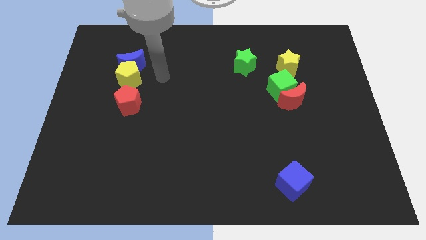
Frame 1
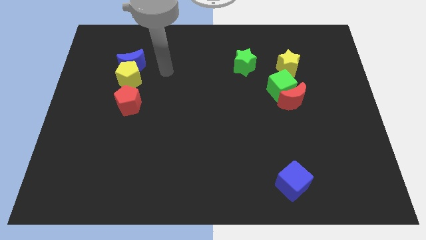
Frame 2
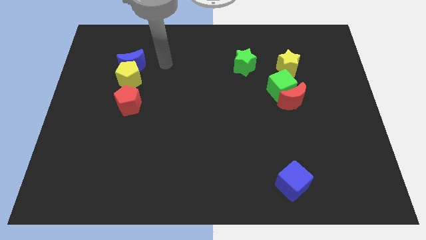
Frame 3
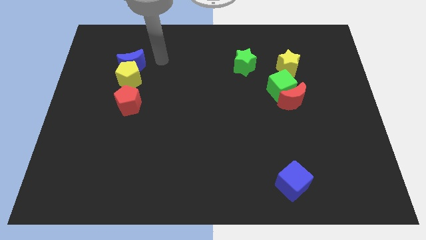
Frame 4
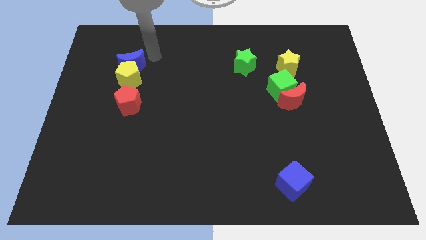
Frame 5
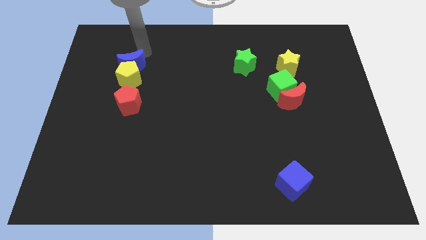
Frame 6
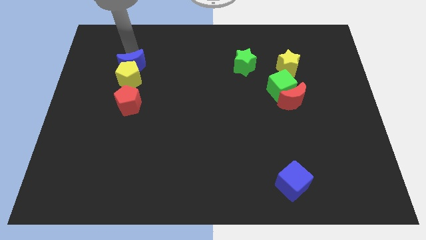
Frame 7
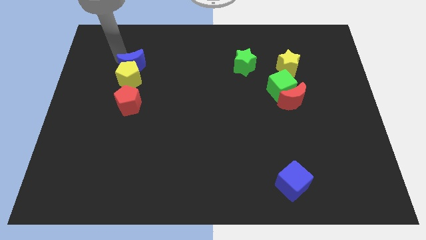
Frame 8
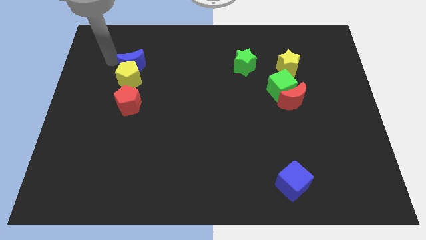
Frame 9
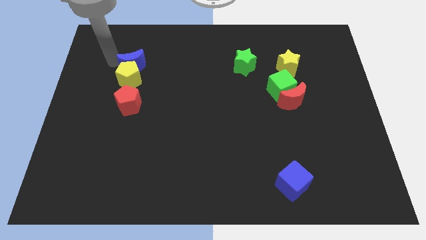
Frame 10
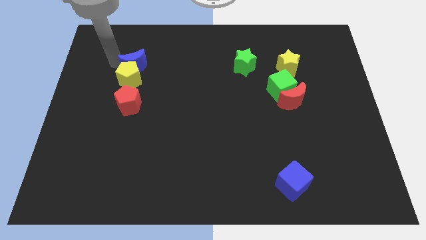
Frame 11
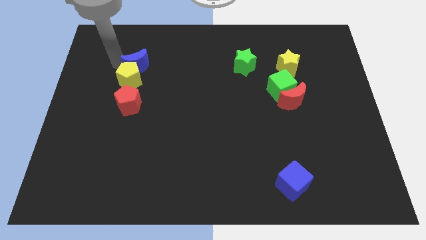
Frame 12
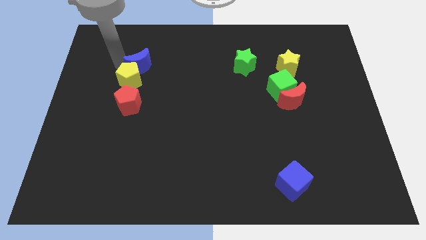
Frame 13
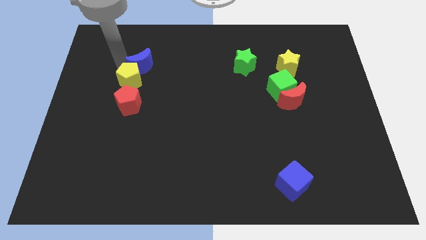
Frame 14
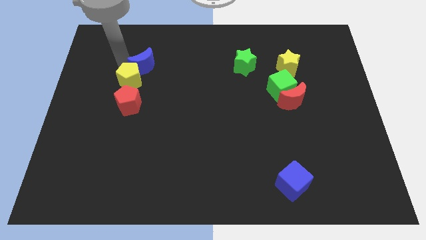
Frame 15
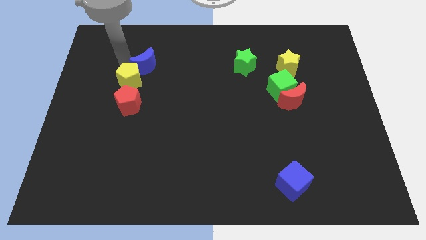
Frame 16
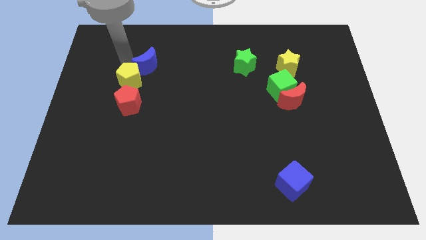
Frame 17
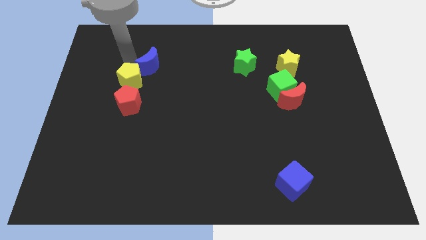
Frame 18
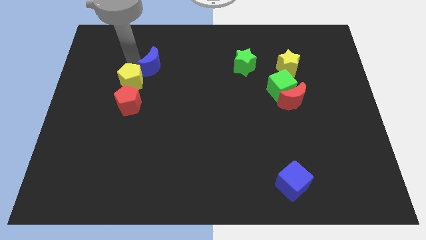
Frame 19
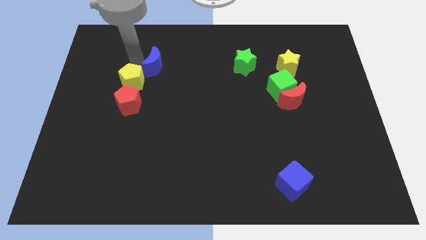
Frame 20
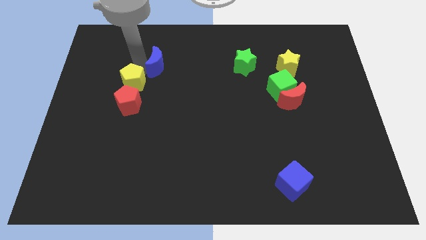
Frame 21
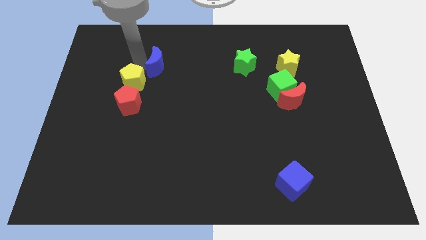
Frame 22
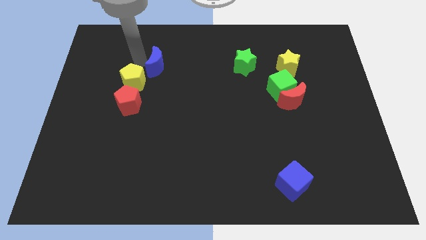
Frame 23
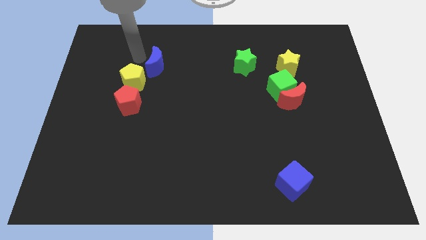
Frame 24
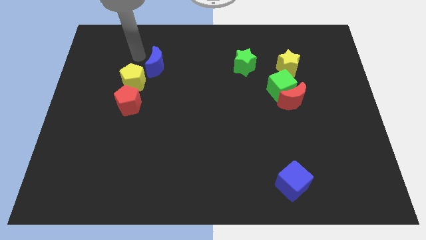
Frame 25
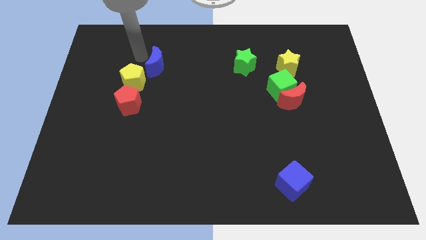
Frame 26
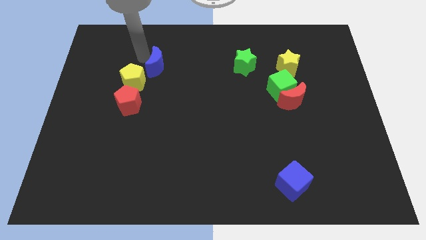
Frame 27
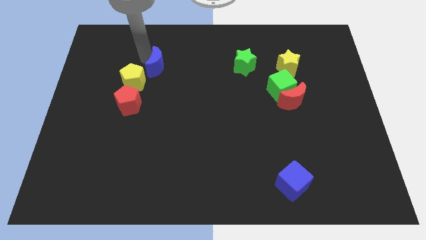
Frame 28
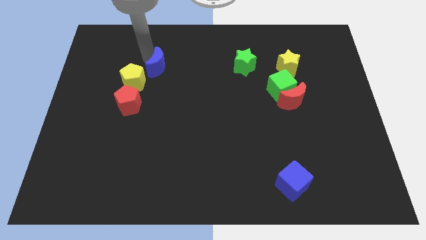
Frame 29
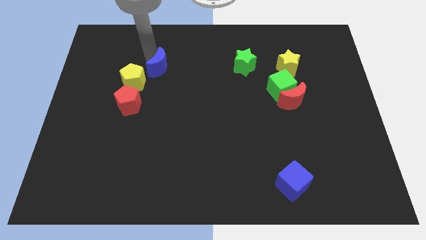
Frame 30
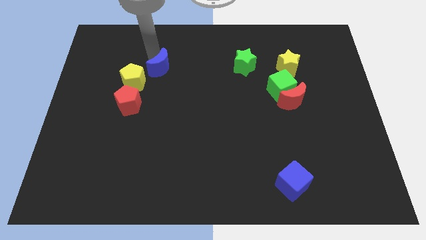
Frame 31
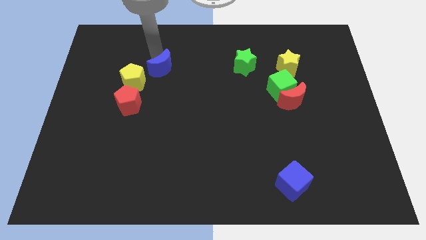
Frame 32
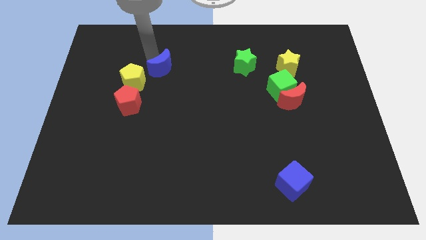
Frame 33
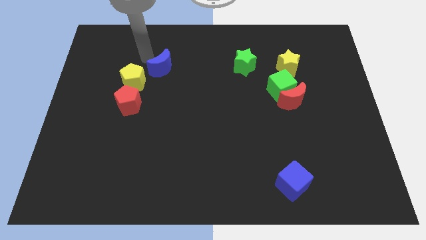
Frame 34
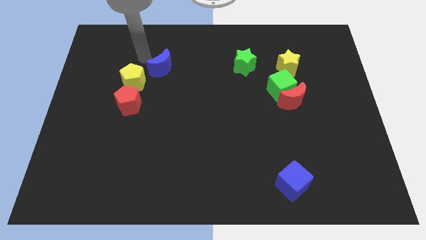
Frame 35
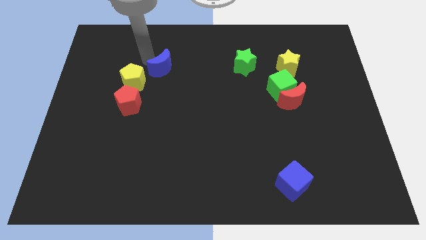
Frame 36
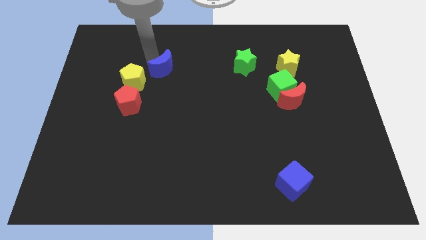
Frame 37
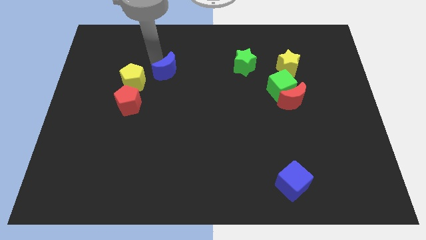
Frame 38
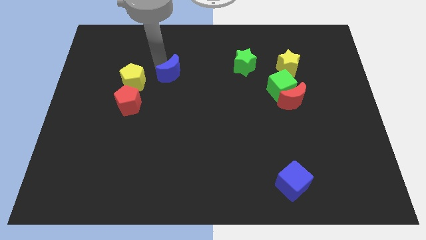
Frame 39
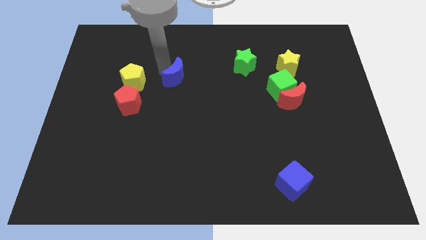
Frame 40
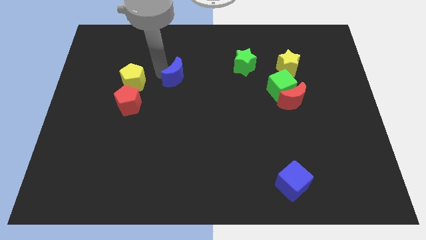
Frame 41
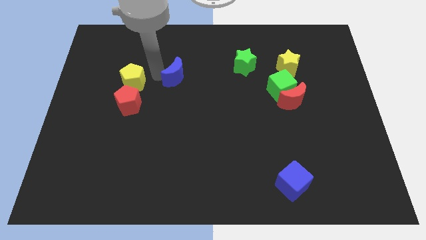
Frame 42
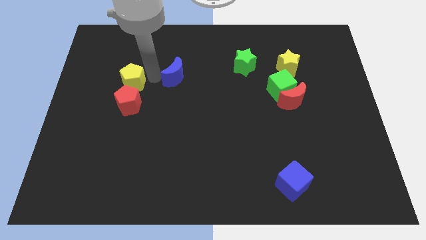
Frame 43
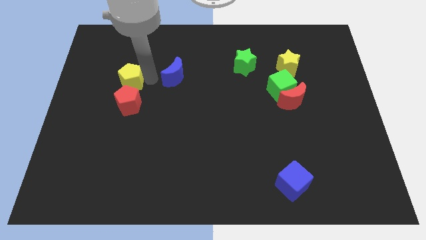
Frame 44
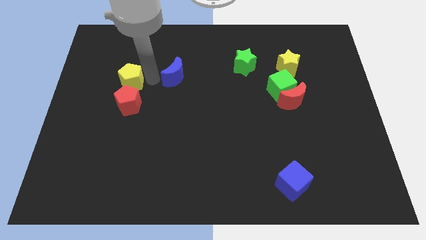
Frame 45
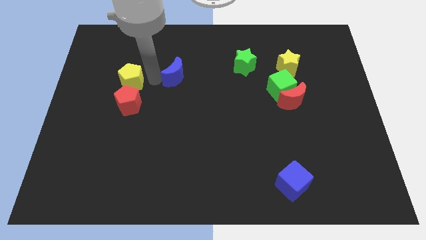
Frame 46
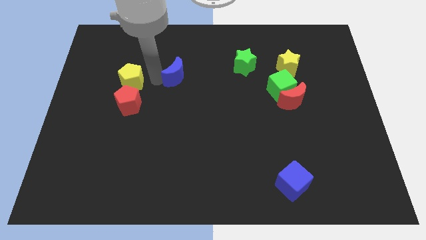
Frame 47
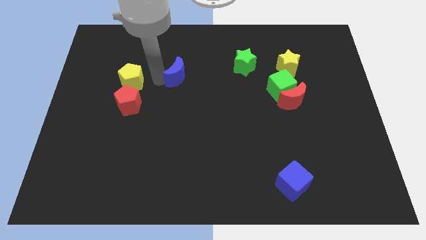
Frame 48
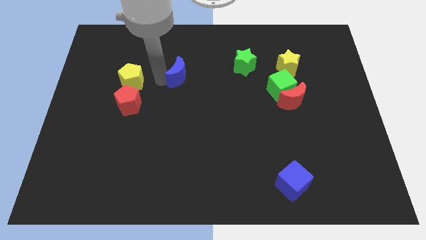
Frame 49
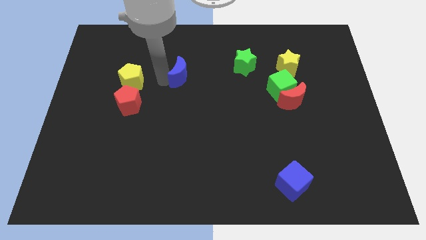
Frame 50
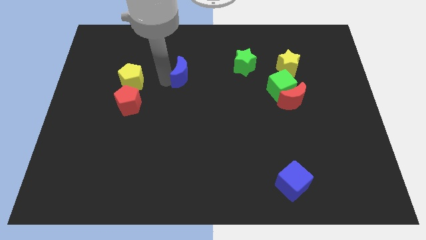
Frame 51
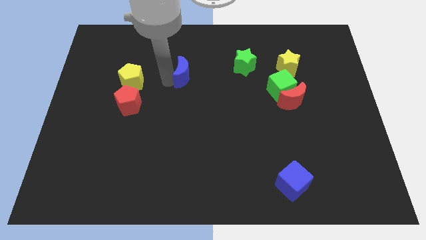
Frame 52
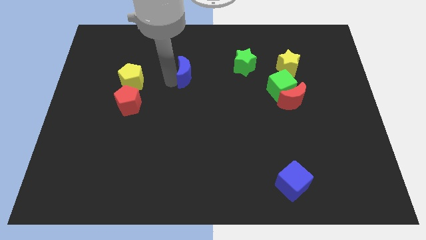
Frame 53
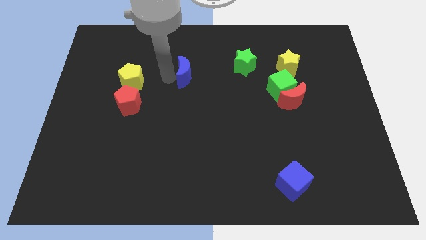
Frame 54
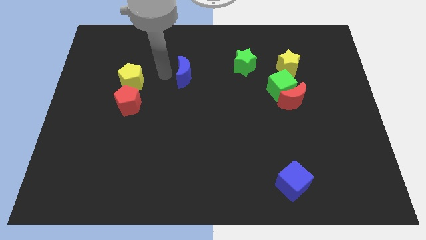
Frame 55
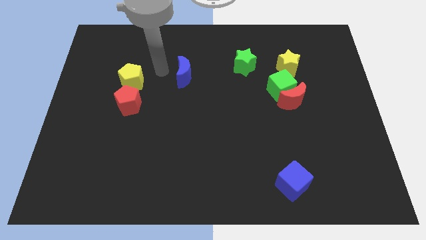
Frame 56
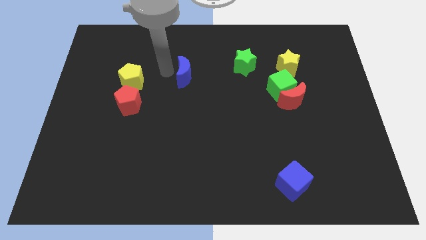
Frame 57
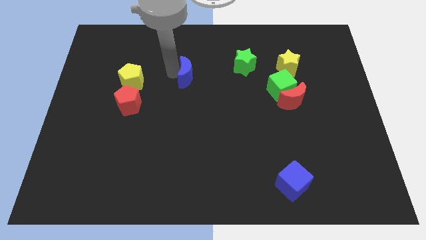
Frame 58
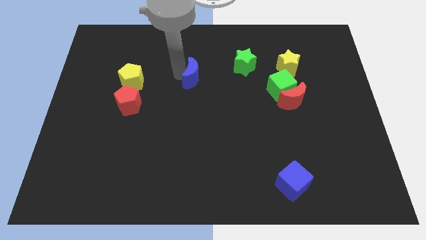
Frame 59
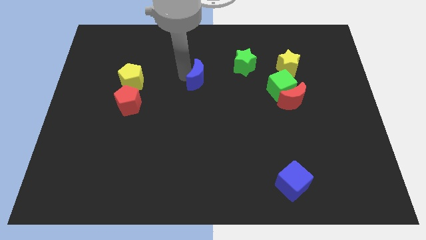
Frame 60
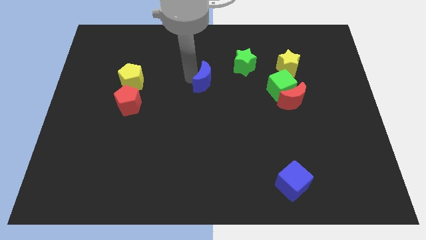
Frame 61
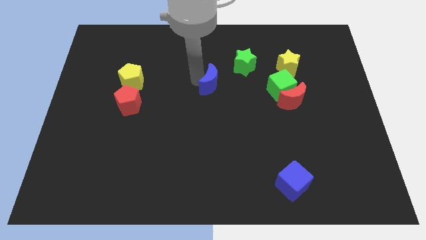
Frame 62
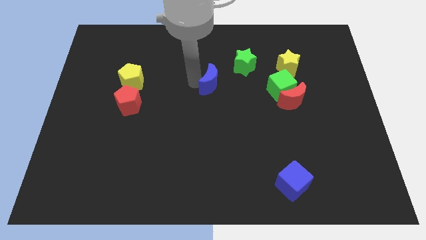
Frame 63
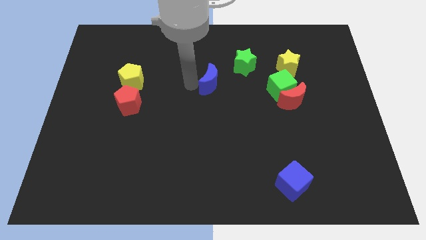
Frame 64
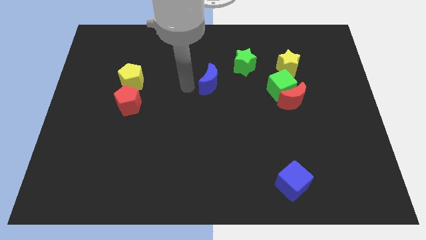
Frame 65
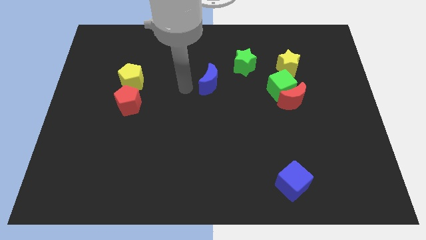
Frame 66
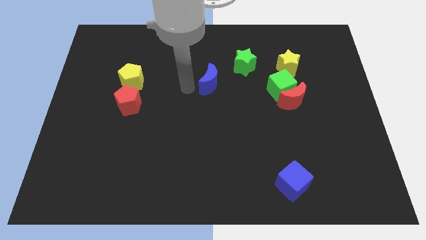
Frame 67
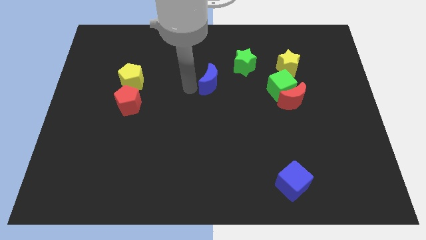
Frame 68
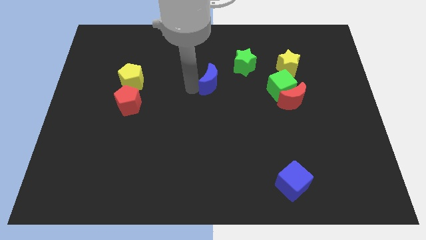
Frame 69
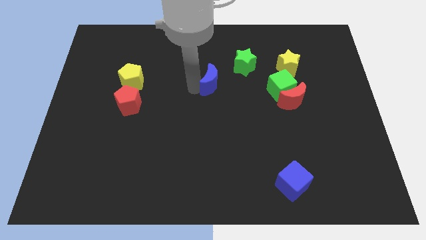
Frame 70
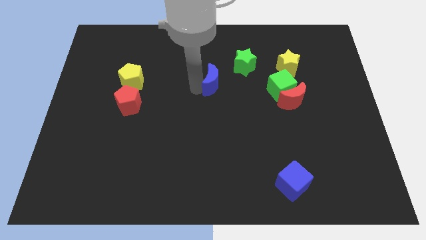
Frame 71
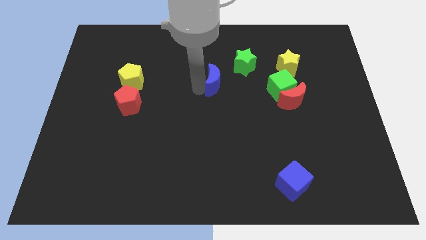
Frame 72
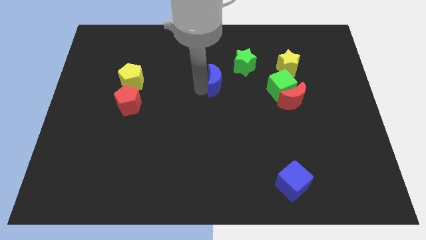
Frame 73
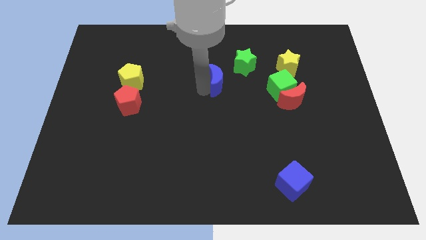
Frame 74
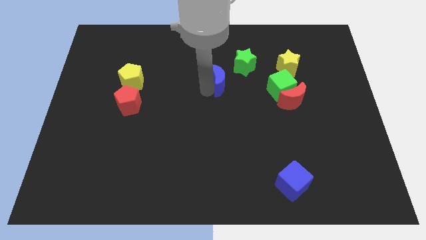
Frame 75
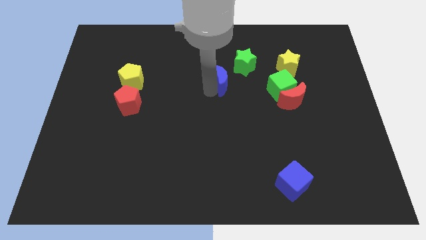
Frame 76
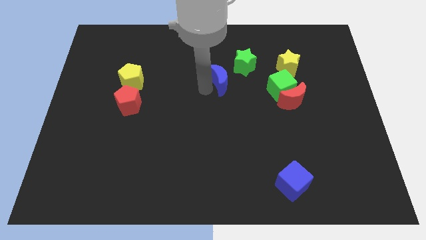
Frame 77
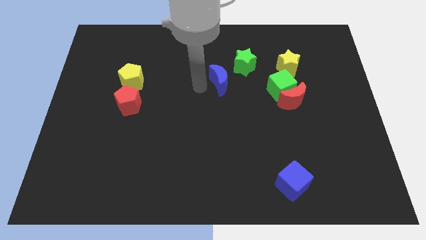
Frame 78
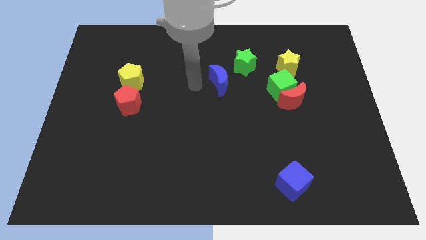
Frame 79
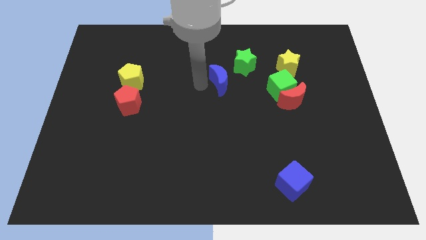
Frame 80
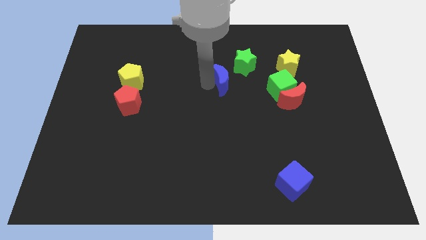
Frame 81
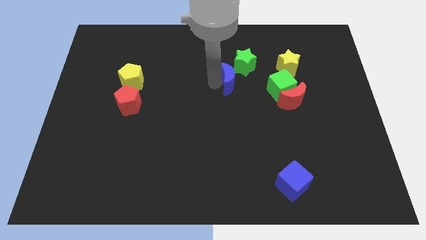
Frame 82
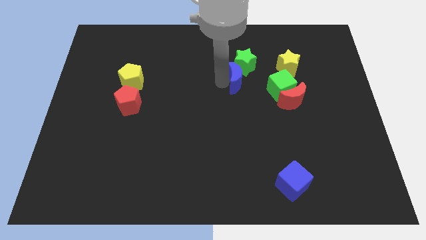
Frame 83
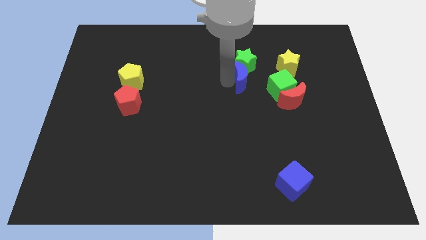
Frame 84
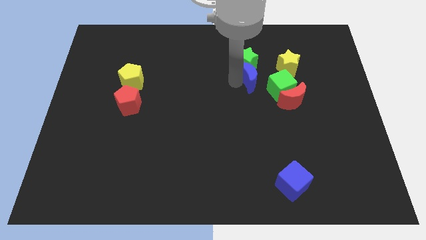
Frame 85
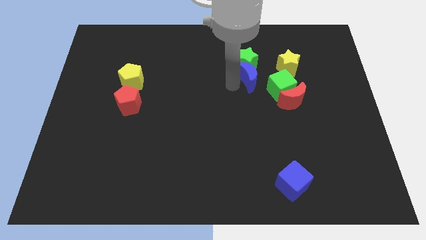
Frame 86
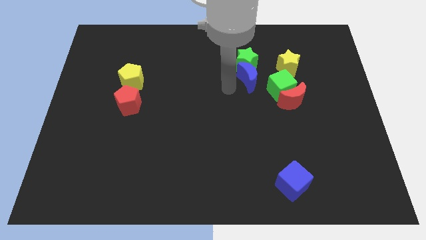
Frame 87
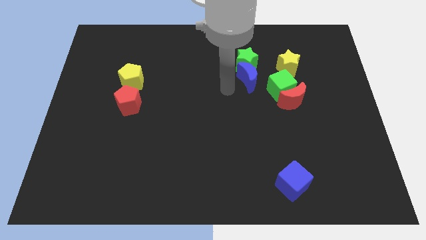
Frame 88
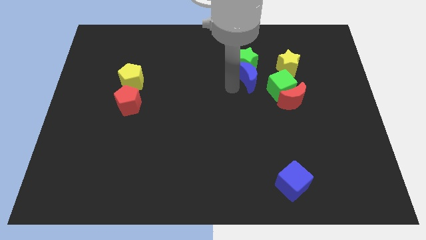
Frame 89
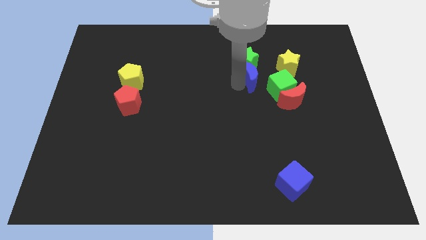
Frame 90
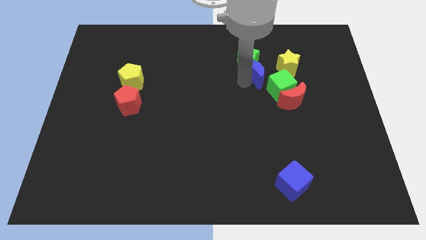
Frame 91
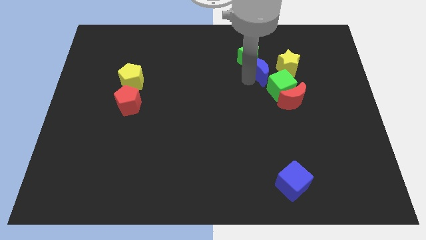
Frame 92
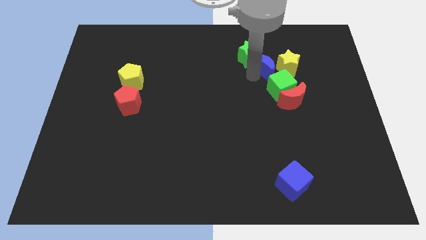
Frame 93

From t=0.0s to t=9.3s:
move the blue moon next to the yellow star
